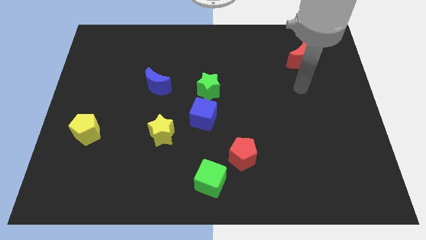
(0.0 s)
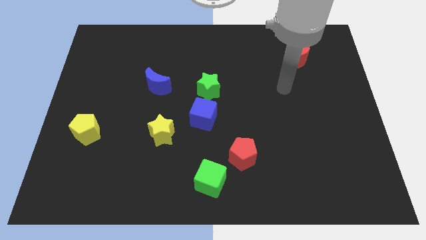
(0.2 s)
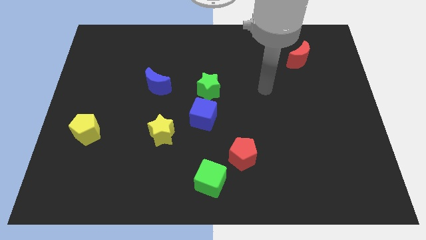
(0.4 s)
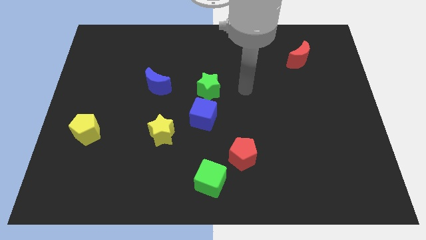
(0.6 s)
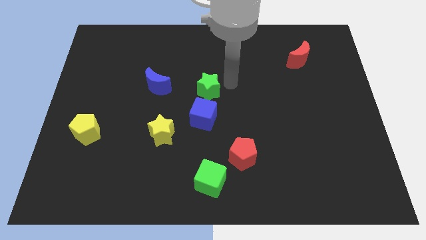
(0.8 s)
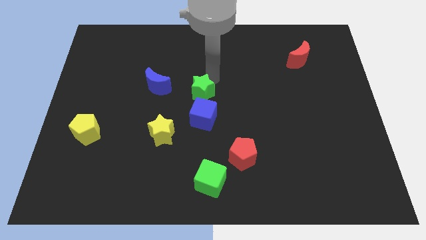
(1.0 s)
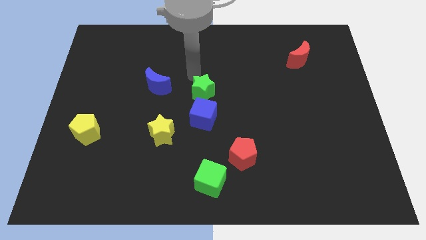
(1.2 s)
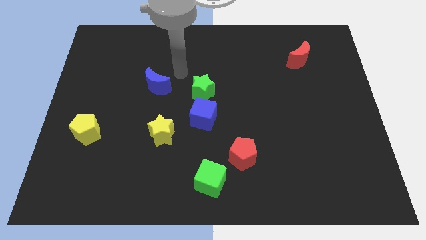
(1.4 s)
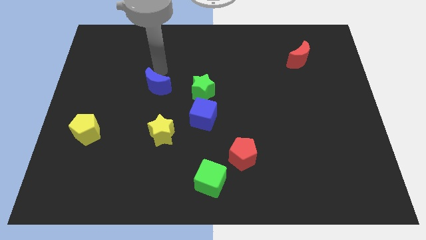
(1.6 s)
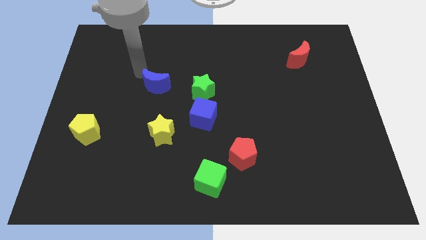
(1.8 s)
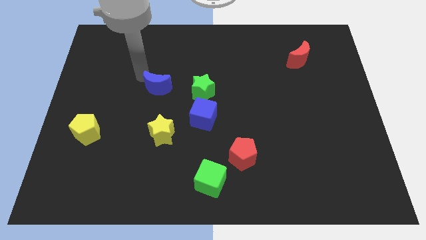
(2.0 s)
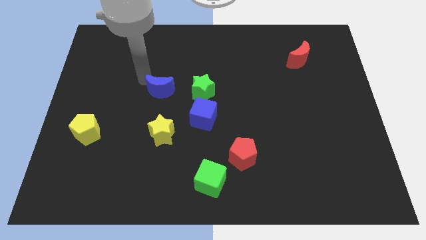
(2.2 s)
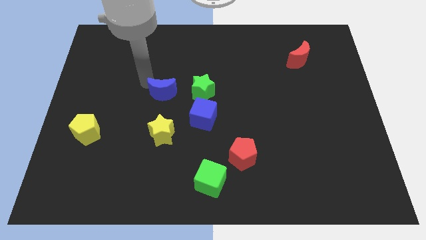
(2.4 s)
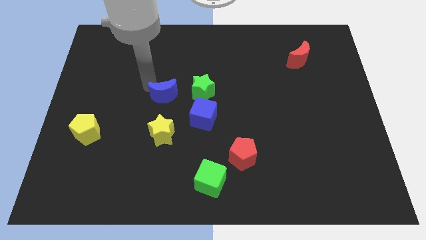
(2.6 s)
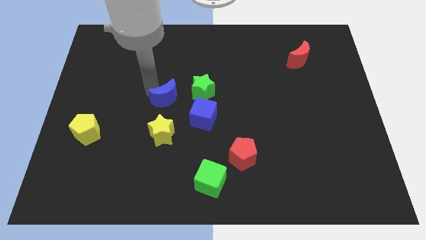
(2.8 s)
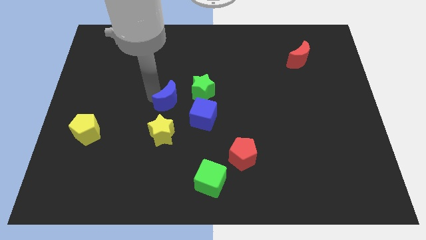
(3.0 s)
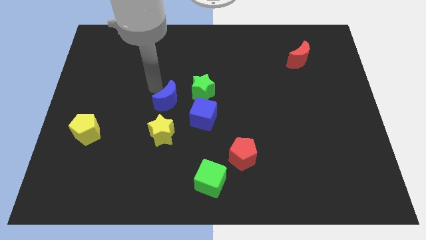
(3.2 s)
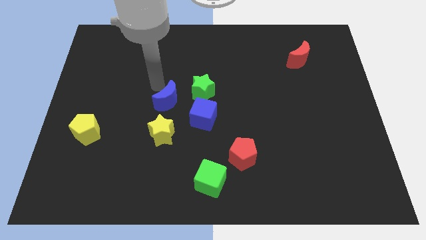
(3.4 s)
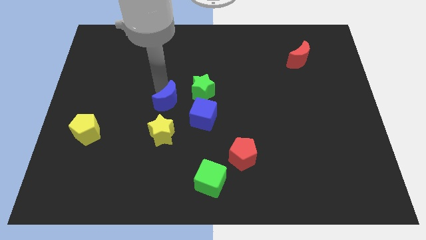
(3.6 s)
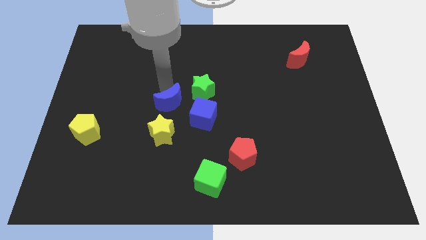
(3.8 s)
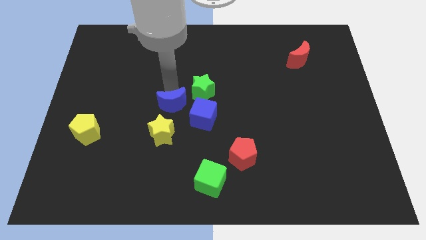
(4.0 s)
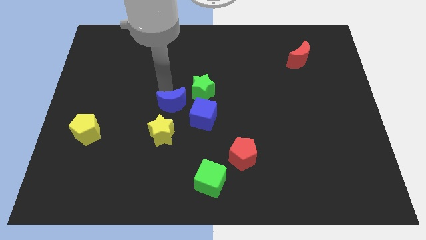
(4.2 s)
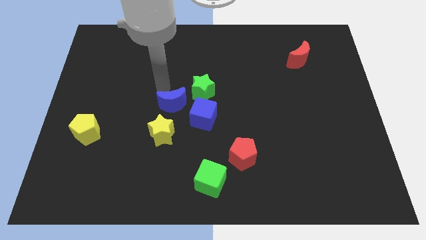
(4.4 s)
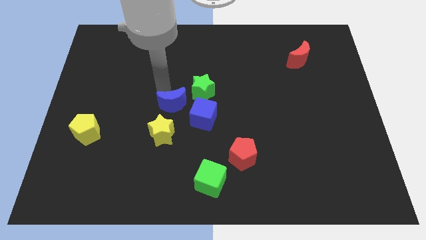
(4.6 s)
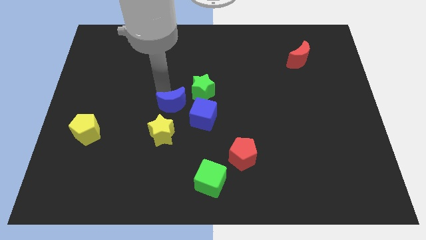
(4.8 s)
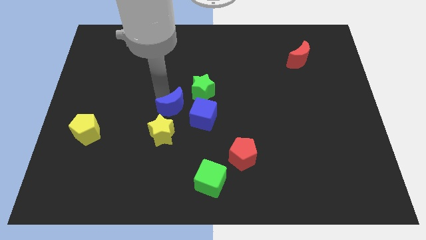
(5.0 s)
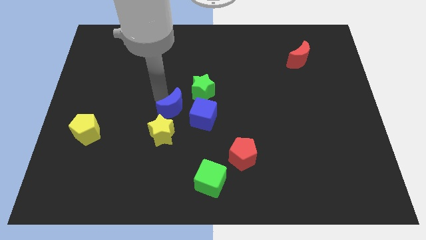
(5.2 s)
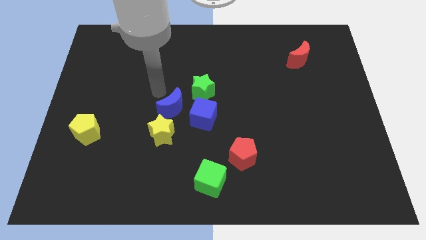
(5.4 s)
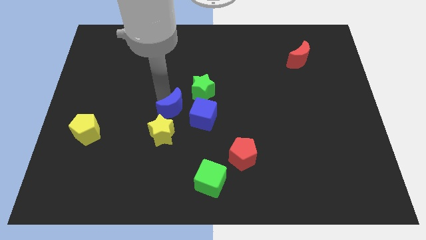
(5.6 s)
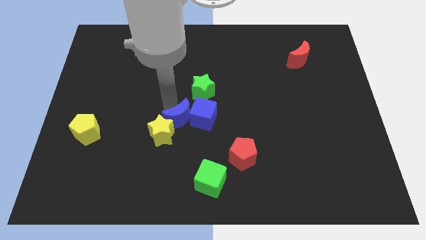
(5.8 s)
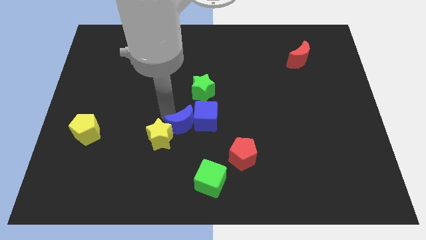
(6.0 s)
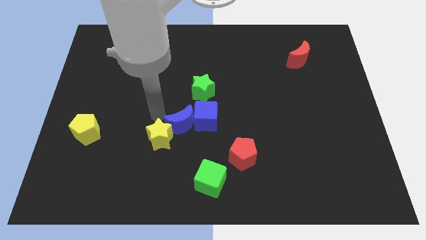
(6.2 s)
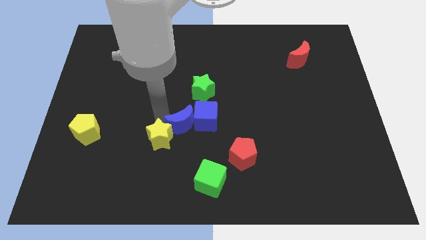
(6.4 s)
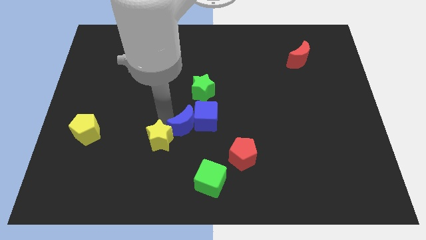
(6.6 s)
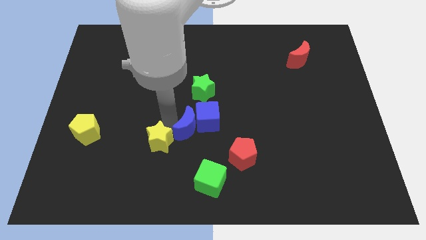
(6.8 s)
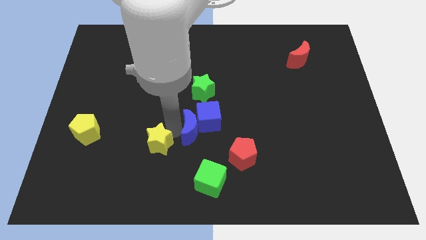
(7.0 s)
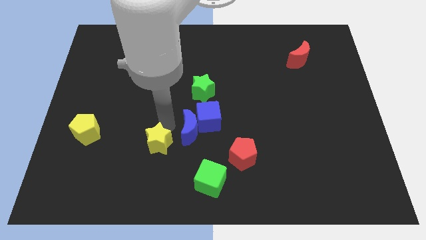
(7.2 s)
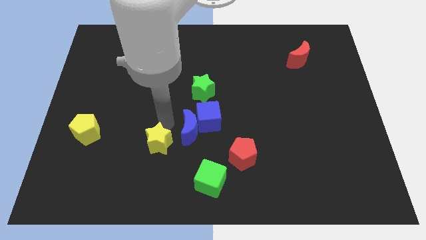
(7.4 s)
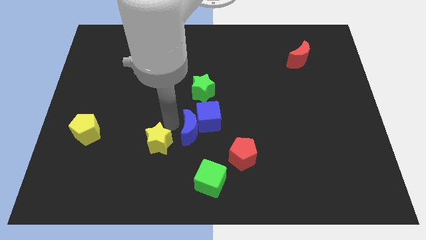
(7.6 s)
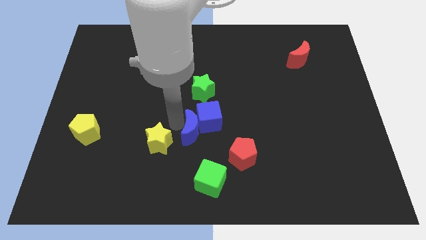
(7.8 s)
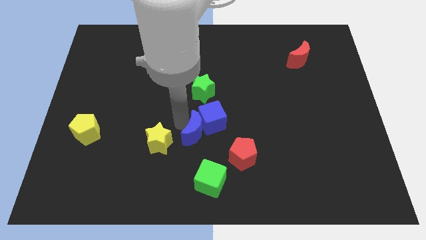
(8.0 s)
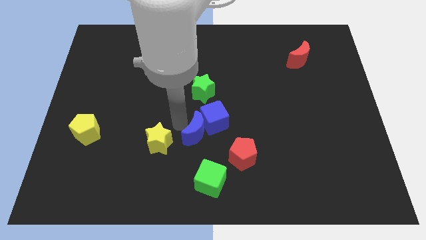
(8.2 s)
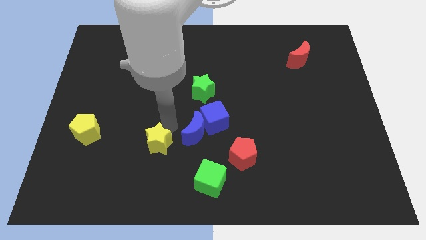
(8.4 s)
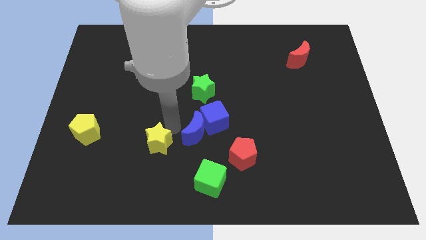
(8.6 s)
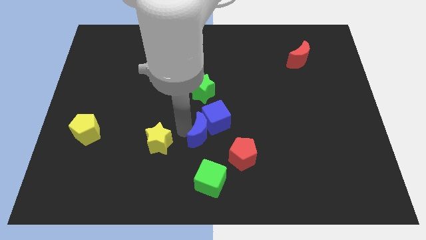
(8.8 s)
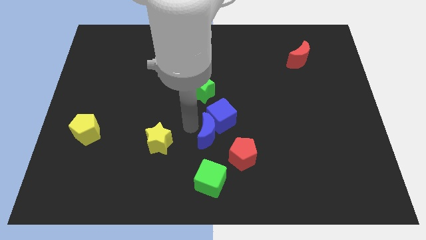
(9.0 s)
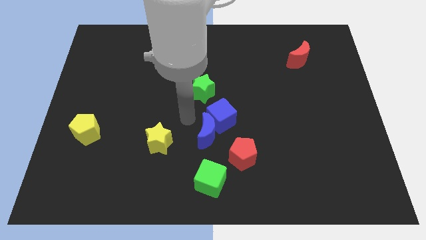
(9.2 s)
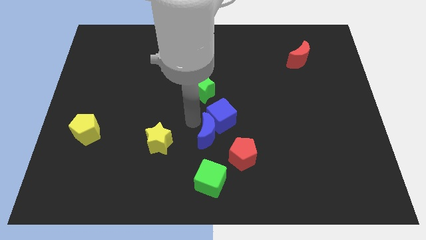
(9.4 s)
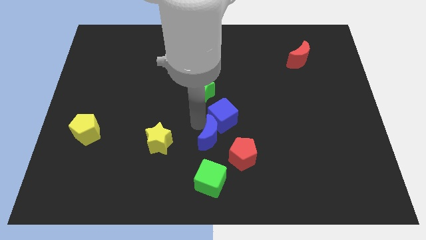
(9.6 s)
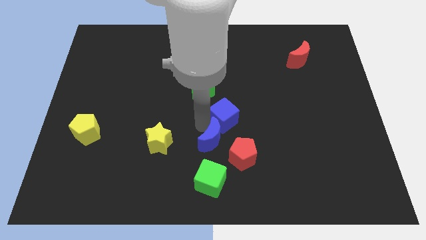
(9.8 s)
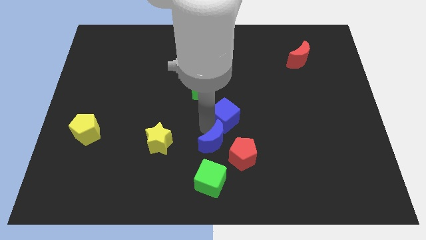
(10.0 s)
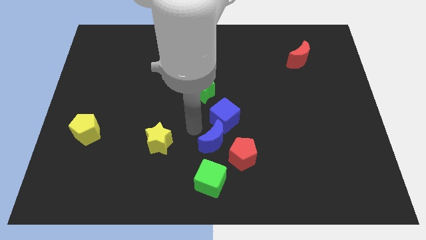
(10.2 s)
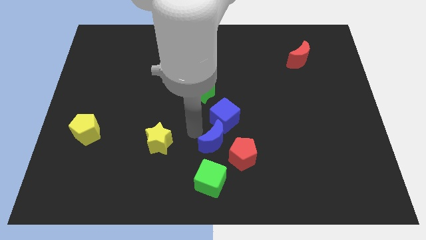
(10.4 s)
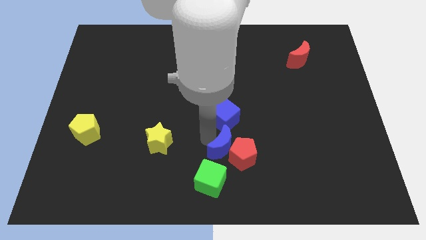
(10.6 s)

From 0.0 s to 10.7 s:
move the blue moon close to the red pentagon

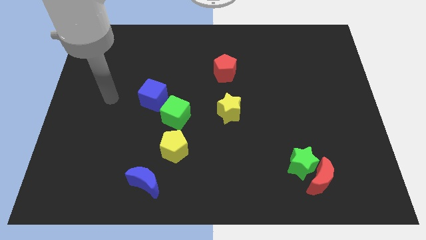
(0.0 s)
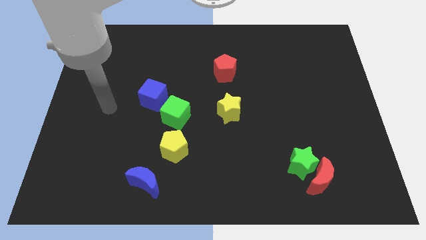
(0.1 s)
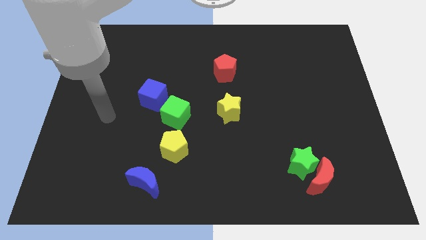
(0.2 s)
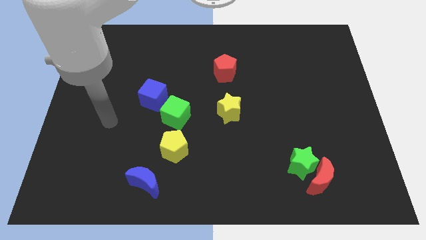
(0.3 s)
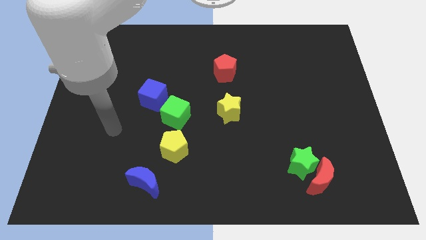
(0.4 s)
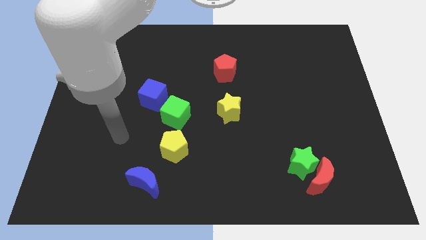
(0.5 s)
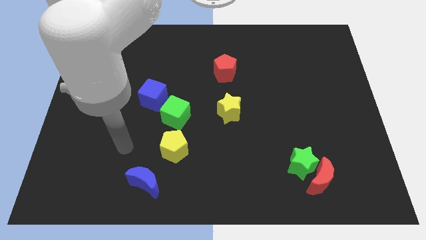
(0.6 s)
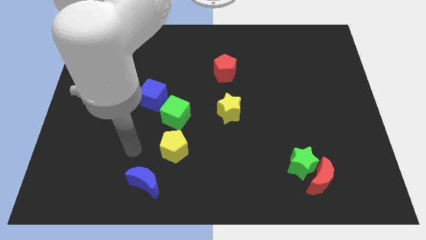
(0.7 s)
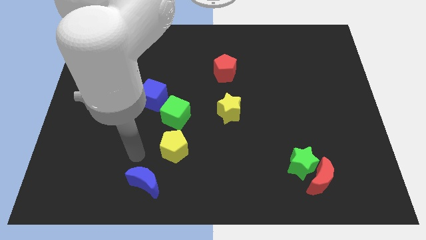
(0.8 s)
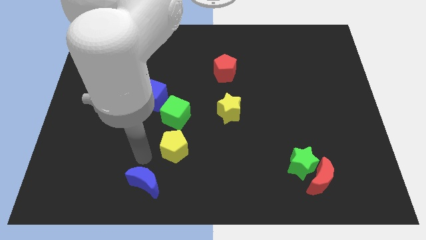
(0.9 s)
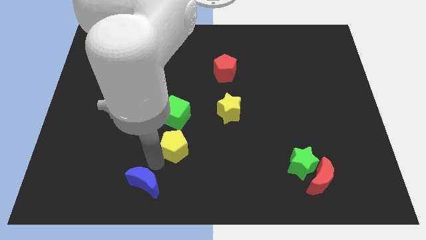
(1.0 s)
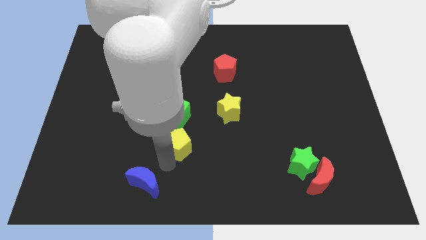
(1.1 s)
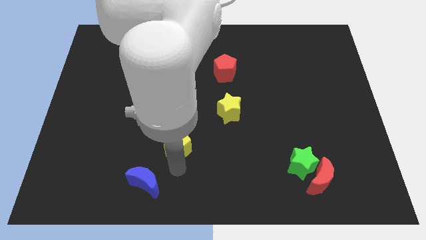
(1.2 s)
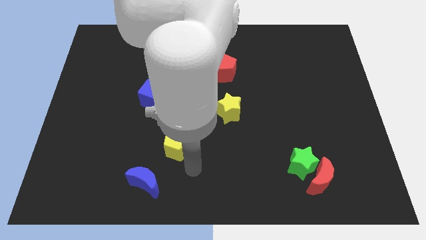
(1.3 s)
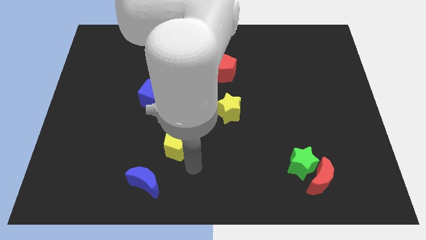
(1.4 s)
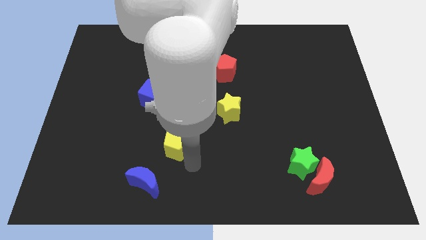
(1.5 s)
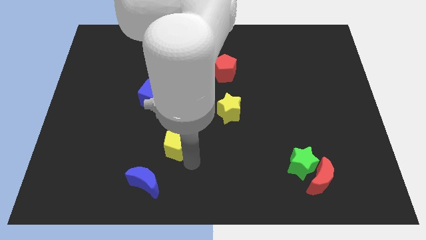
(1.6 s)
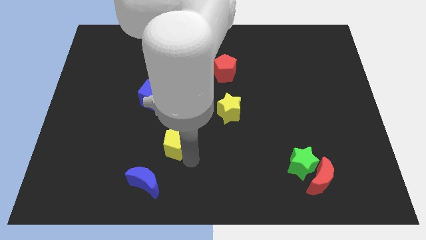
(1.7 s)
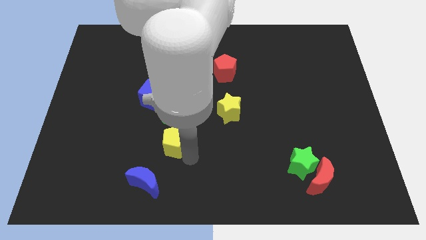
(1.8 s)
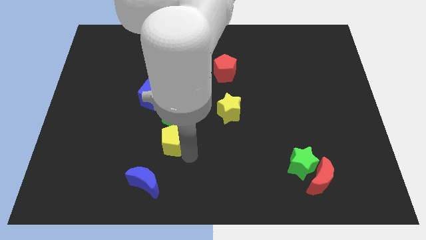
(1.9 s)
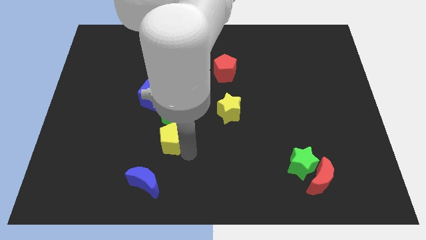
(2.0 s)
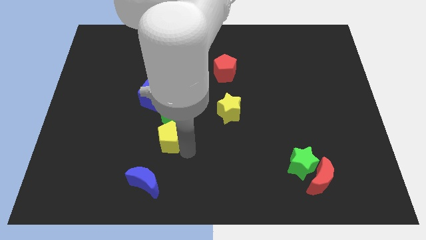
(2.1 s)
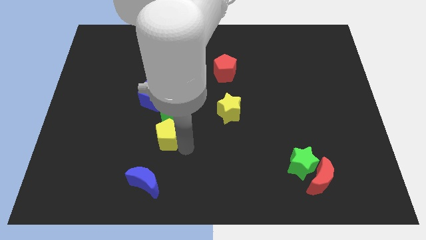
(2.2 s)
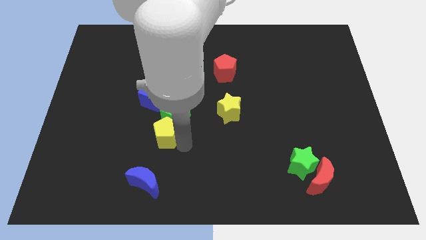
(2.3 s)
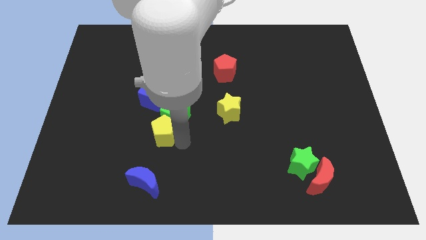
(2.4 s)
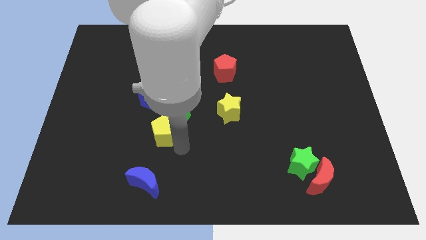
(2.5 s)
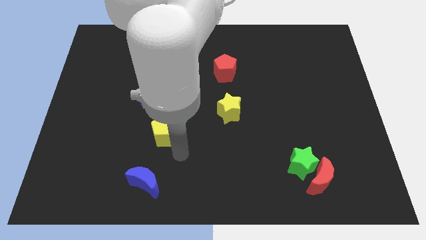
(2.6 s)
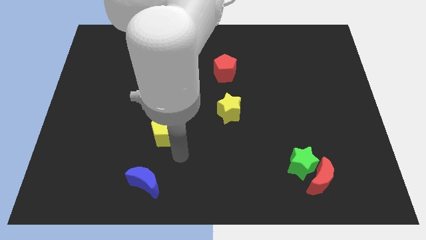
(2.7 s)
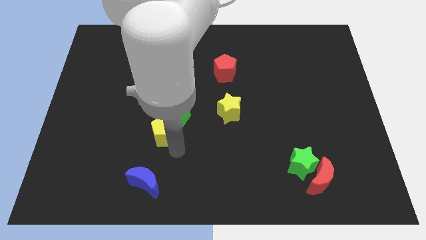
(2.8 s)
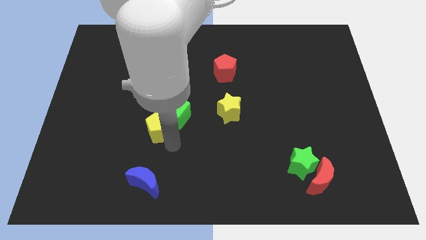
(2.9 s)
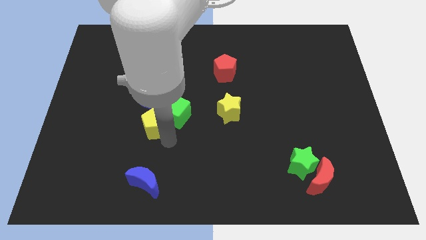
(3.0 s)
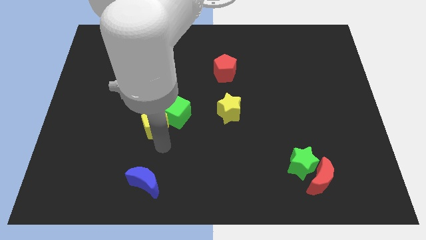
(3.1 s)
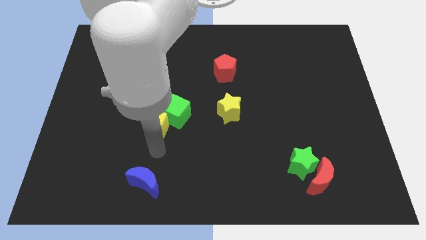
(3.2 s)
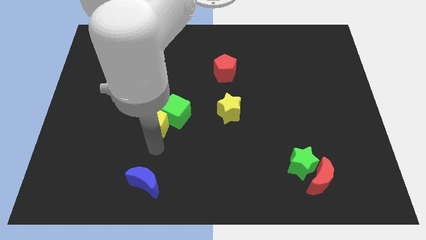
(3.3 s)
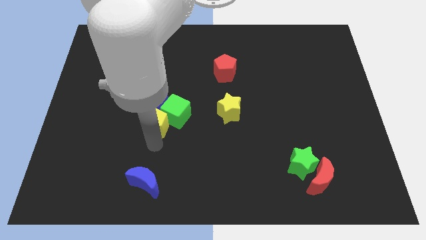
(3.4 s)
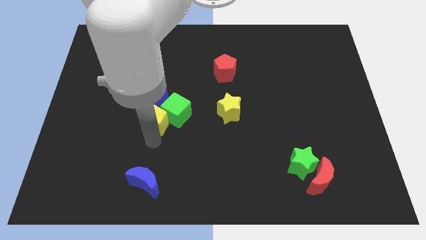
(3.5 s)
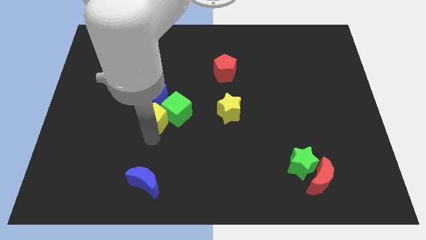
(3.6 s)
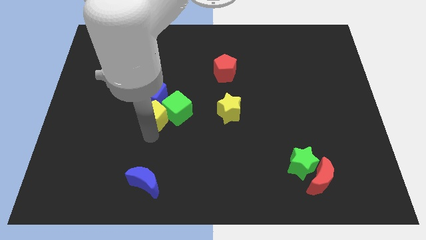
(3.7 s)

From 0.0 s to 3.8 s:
move the yellow pentagon close to the blue cube
